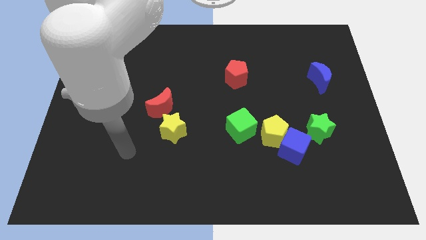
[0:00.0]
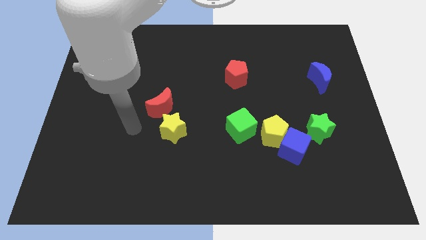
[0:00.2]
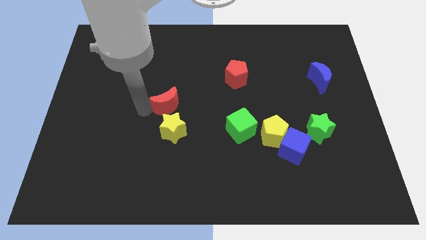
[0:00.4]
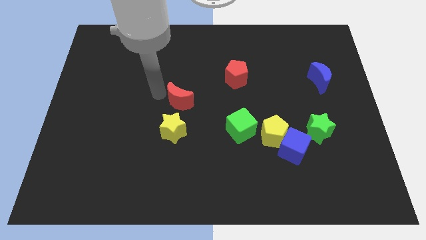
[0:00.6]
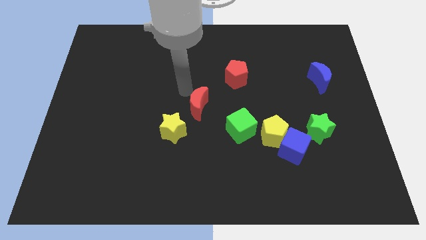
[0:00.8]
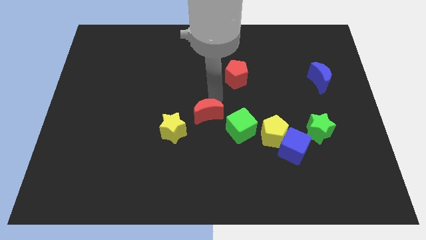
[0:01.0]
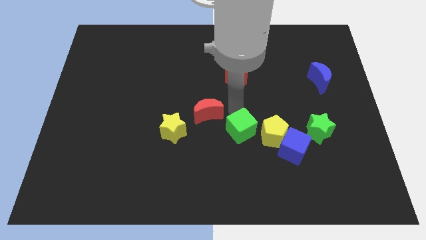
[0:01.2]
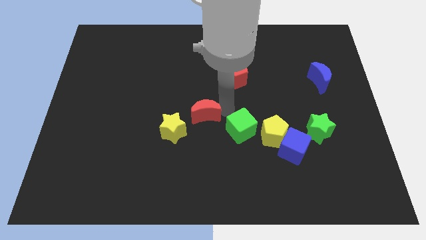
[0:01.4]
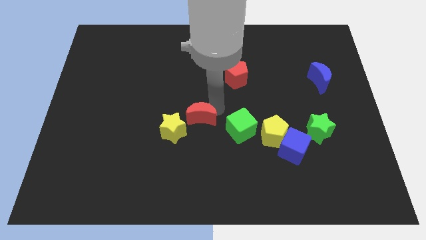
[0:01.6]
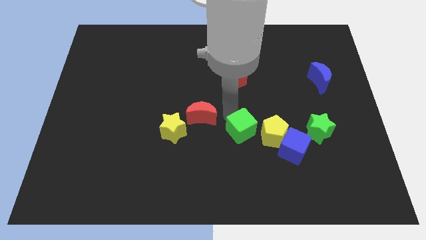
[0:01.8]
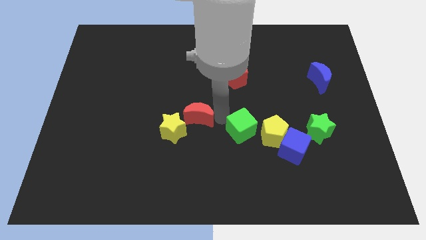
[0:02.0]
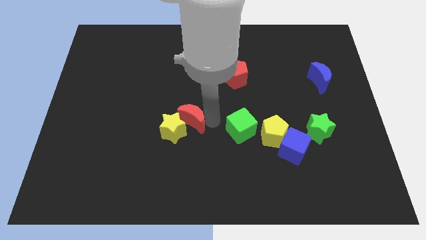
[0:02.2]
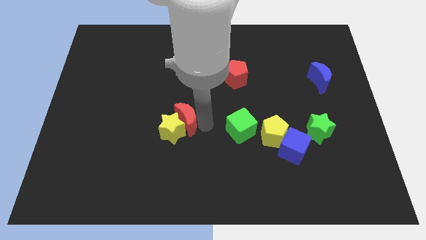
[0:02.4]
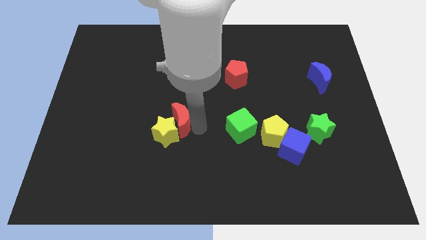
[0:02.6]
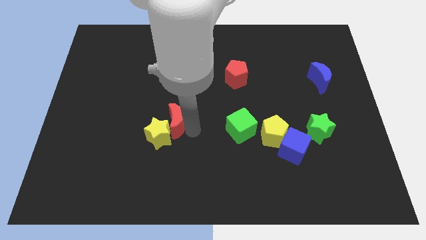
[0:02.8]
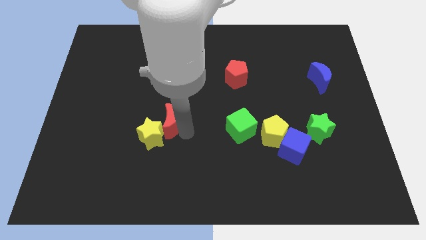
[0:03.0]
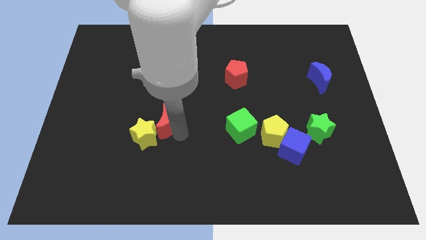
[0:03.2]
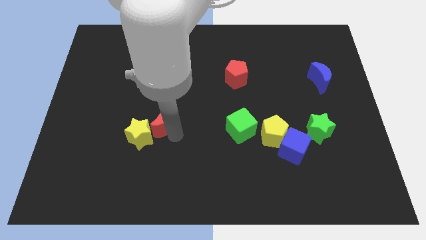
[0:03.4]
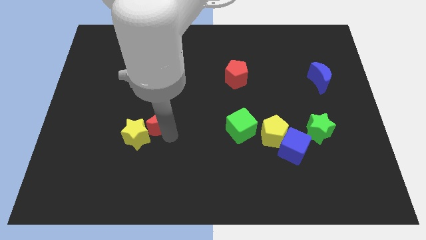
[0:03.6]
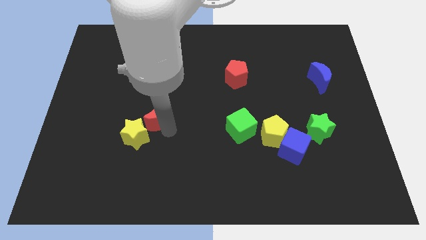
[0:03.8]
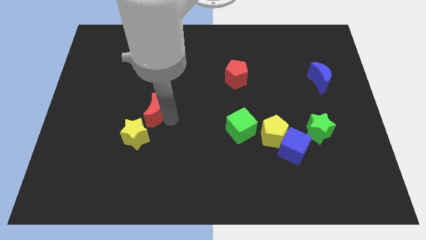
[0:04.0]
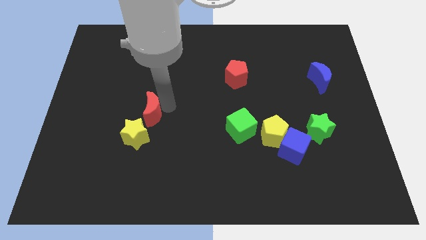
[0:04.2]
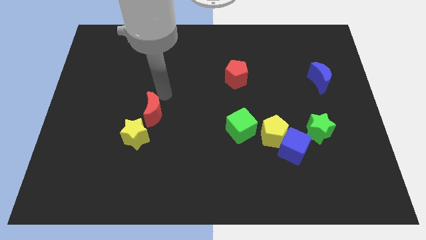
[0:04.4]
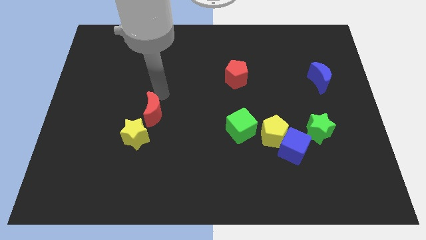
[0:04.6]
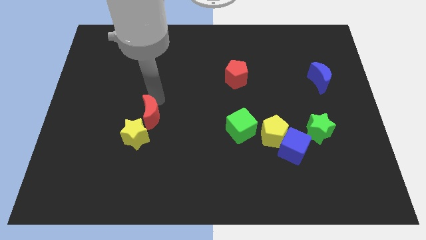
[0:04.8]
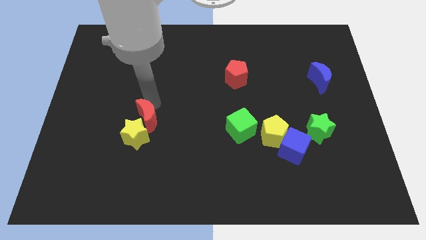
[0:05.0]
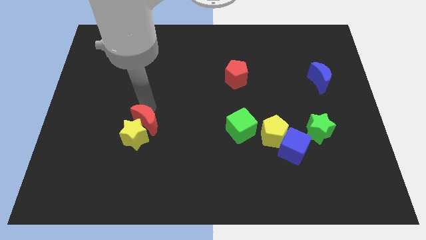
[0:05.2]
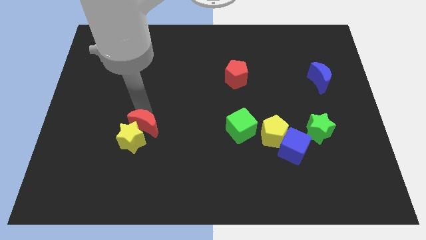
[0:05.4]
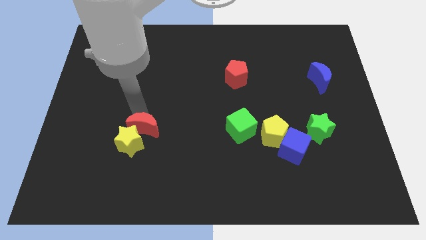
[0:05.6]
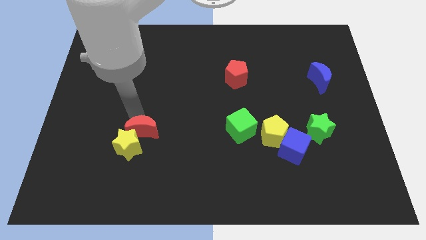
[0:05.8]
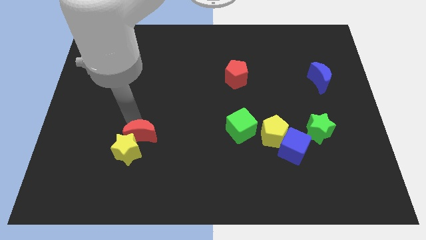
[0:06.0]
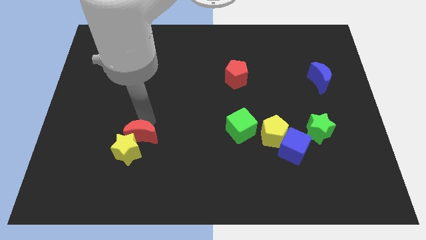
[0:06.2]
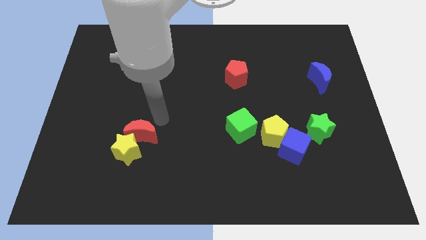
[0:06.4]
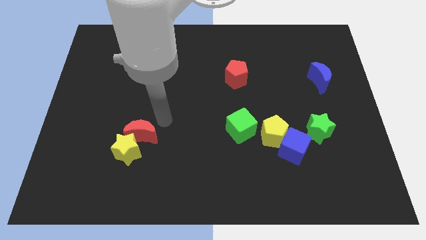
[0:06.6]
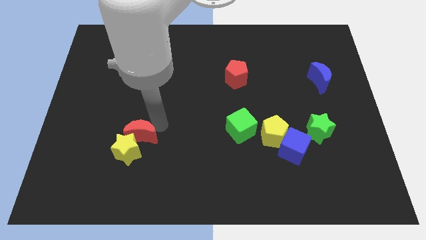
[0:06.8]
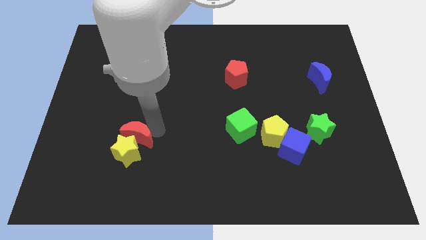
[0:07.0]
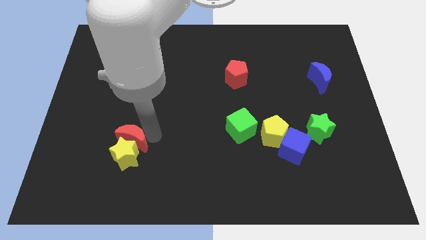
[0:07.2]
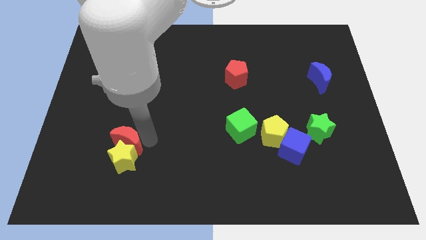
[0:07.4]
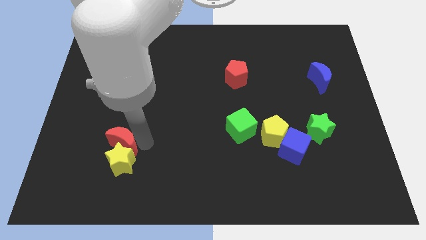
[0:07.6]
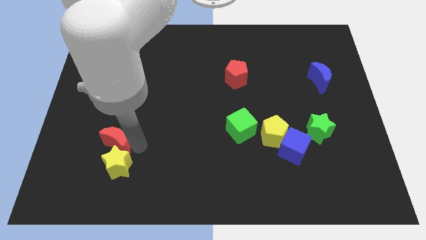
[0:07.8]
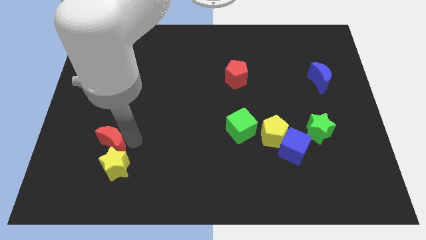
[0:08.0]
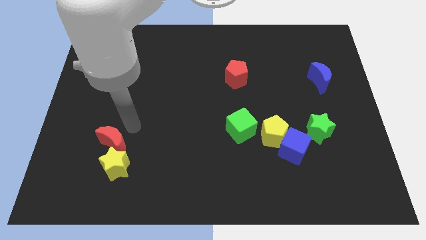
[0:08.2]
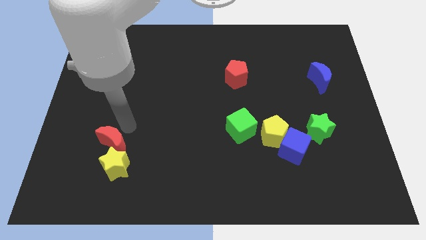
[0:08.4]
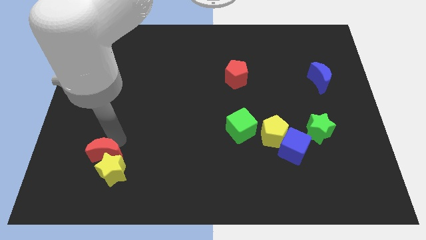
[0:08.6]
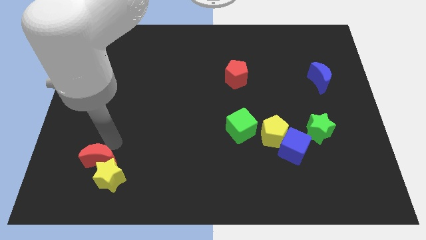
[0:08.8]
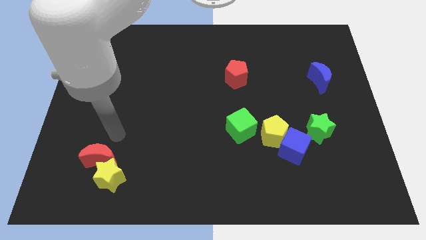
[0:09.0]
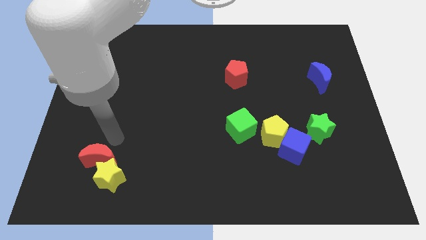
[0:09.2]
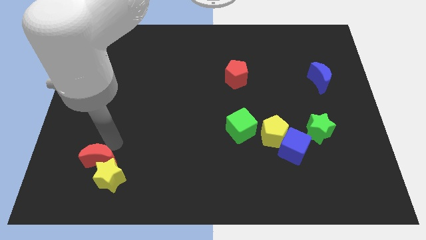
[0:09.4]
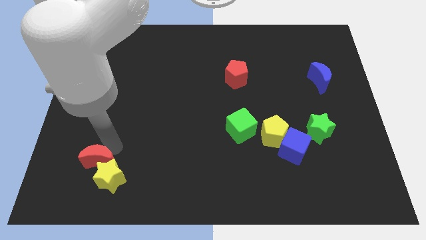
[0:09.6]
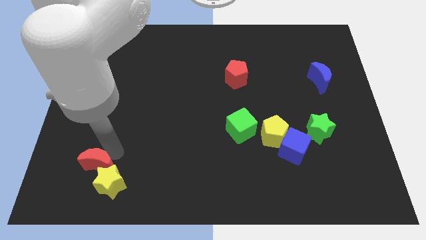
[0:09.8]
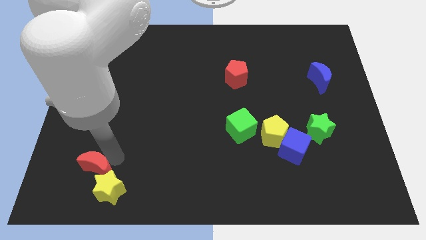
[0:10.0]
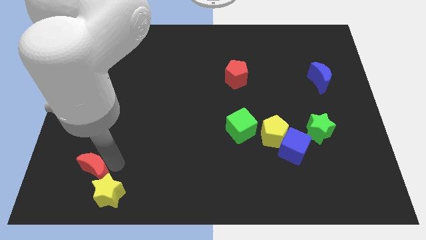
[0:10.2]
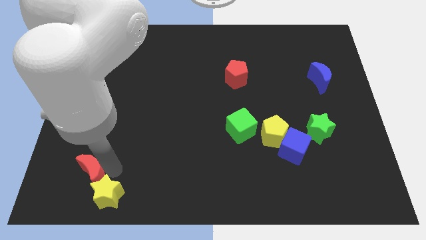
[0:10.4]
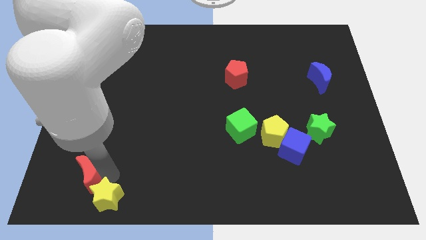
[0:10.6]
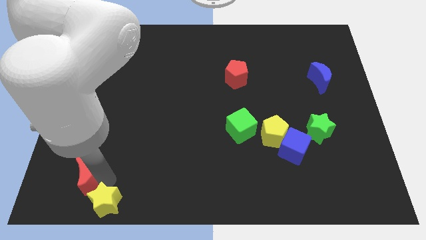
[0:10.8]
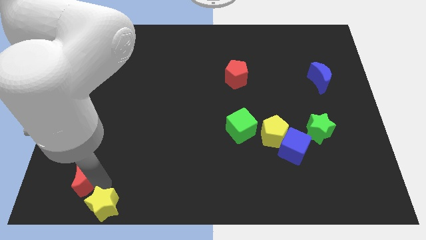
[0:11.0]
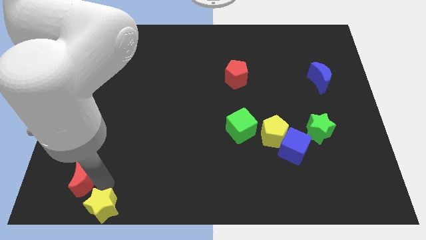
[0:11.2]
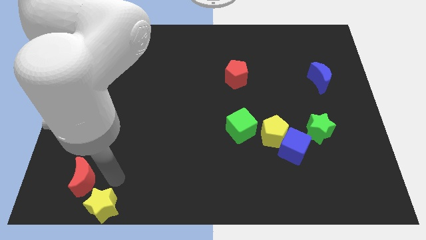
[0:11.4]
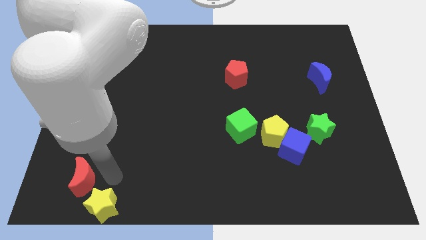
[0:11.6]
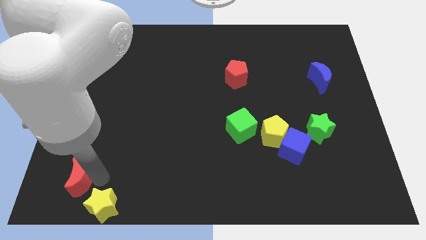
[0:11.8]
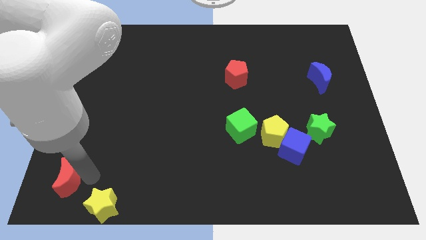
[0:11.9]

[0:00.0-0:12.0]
move the red moon to the bottom left of the board

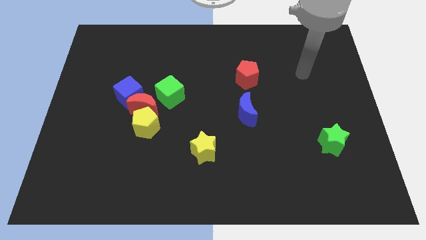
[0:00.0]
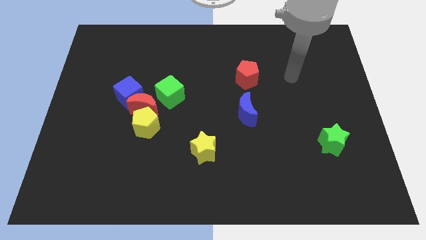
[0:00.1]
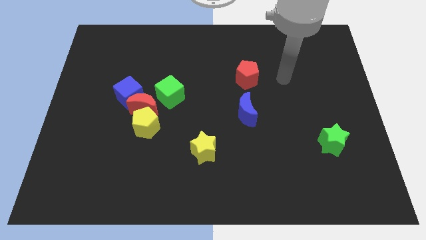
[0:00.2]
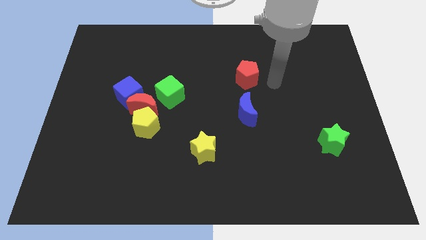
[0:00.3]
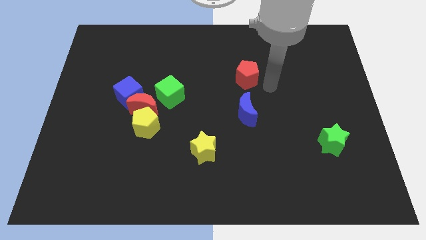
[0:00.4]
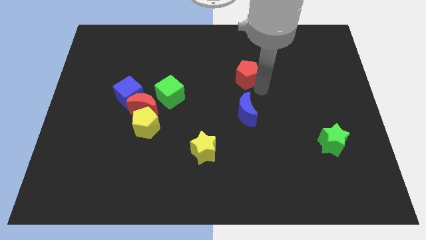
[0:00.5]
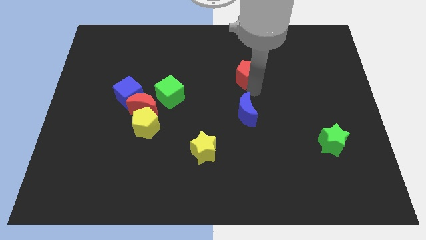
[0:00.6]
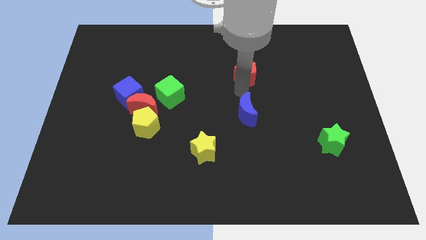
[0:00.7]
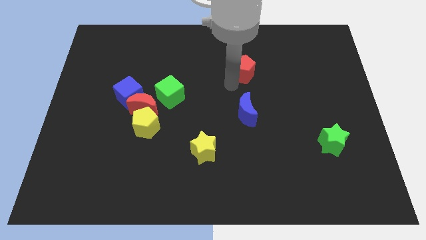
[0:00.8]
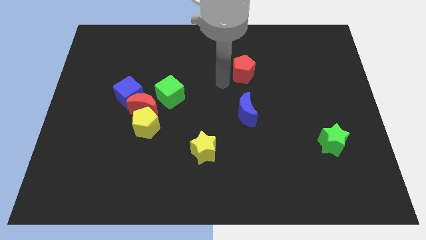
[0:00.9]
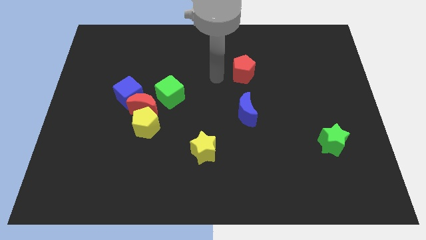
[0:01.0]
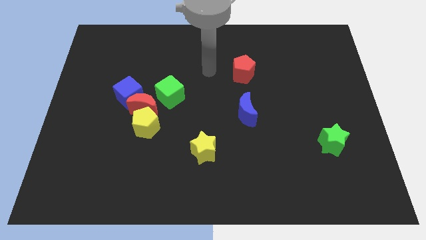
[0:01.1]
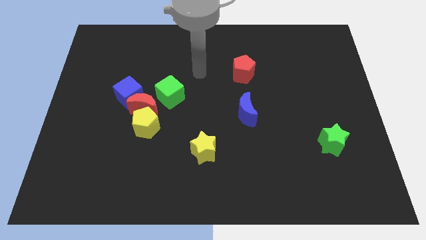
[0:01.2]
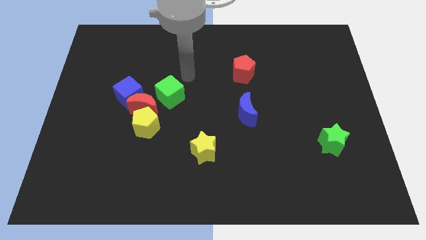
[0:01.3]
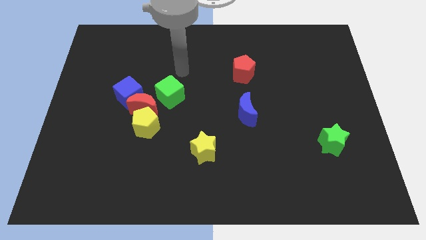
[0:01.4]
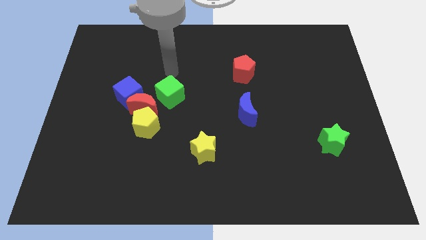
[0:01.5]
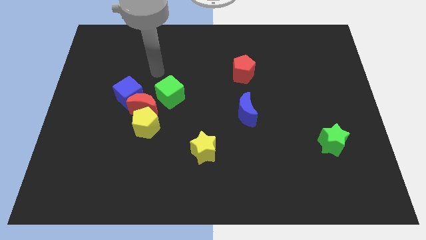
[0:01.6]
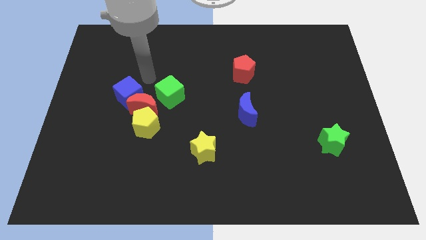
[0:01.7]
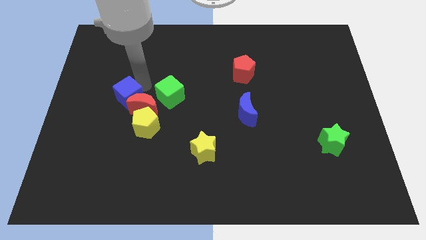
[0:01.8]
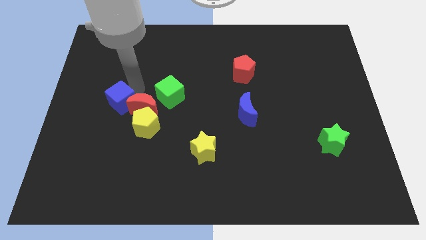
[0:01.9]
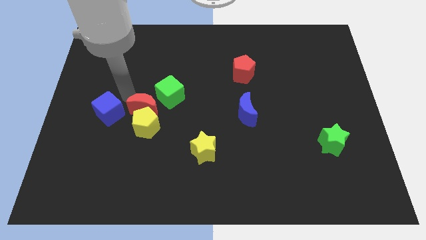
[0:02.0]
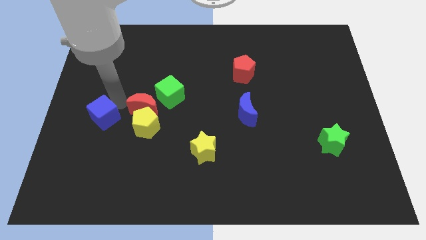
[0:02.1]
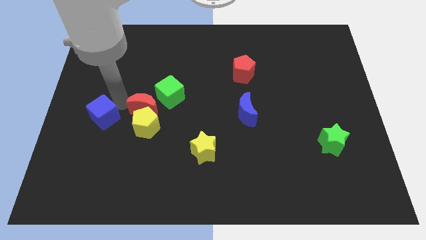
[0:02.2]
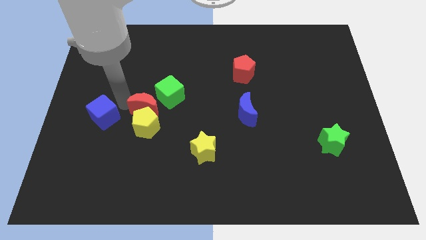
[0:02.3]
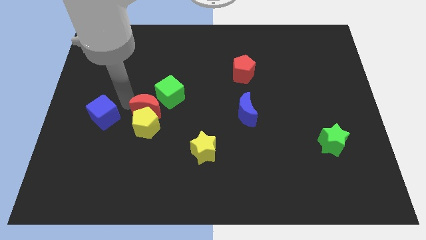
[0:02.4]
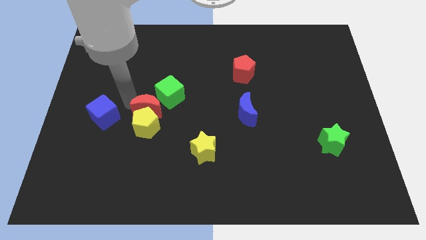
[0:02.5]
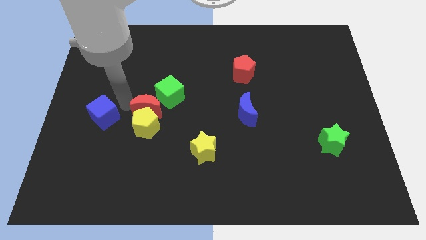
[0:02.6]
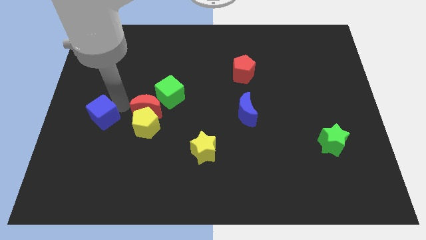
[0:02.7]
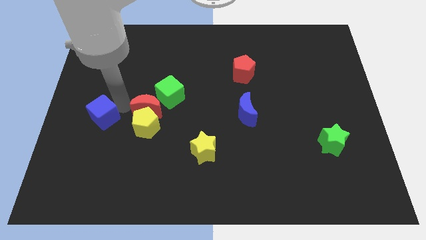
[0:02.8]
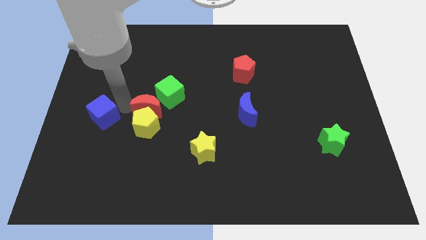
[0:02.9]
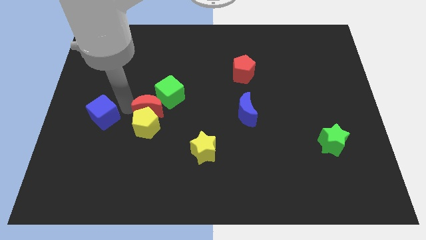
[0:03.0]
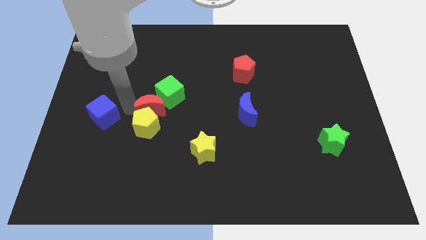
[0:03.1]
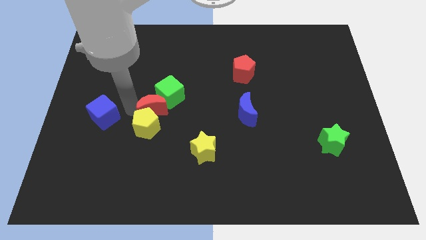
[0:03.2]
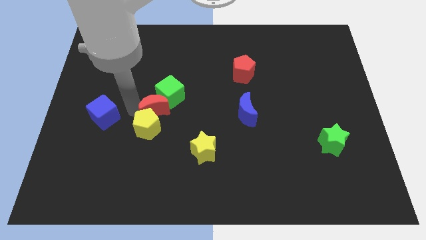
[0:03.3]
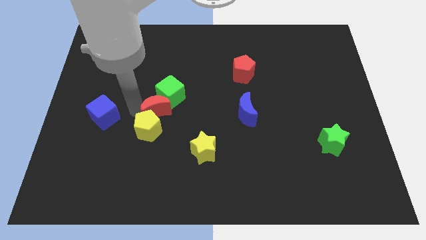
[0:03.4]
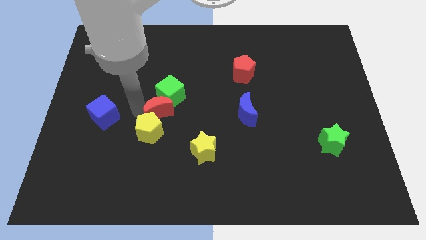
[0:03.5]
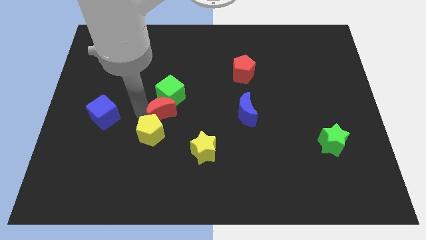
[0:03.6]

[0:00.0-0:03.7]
move the red moon to the middle
